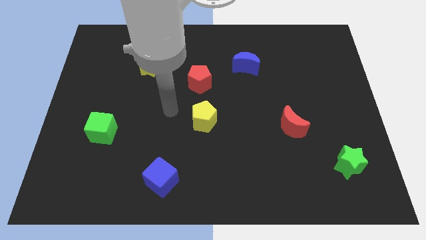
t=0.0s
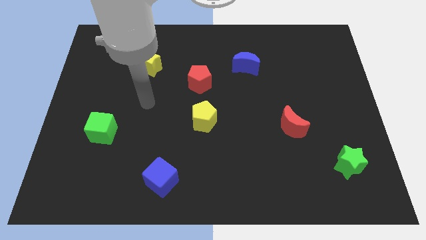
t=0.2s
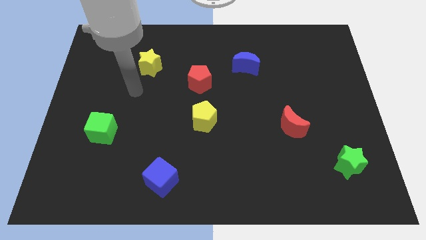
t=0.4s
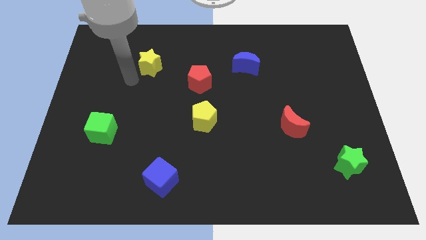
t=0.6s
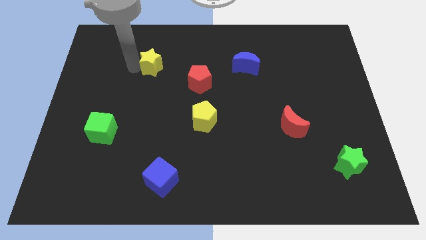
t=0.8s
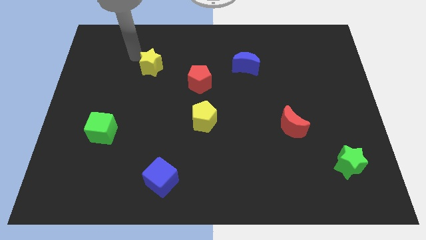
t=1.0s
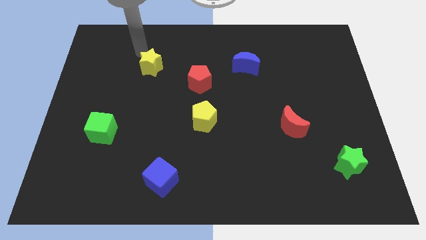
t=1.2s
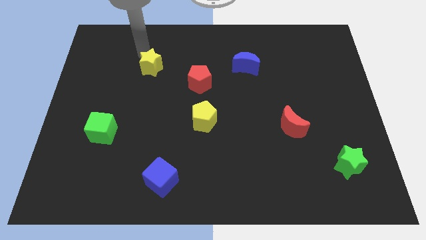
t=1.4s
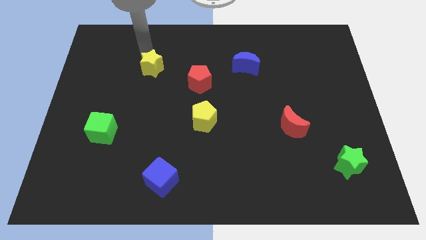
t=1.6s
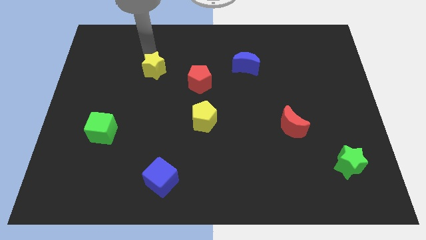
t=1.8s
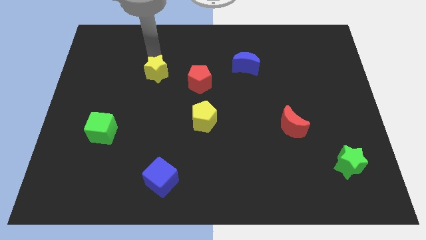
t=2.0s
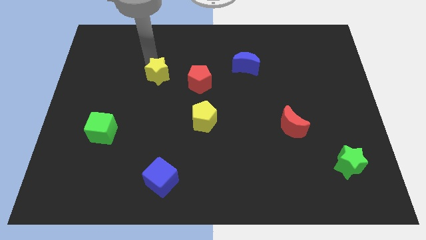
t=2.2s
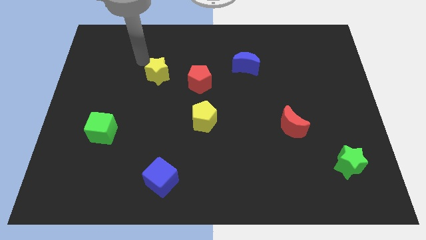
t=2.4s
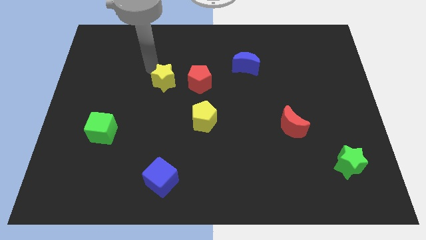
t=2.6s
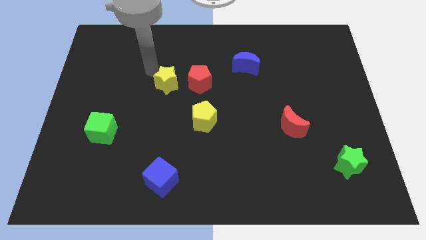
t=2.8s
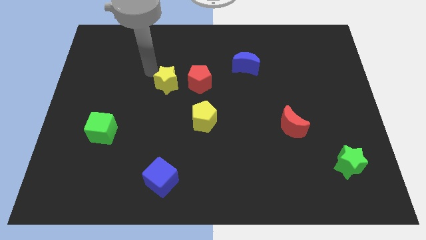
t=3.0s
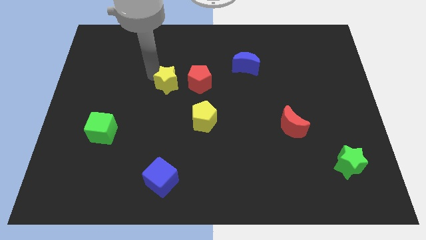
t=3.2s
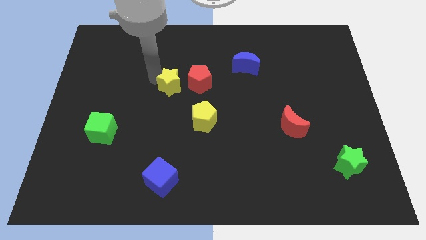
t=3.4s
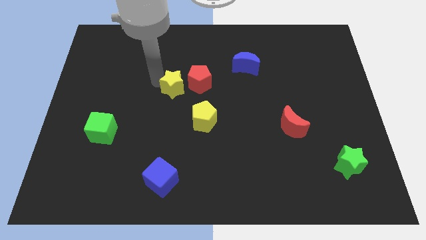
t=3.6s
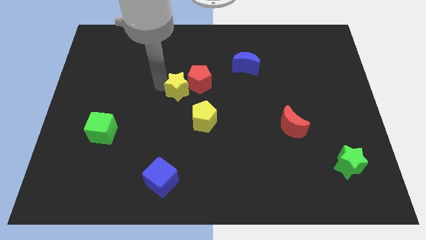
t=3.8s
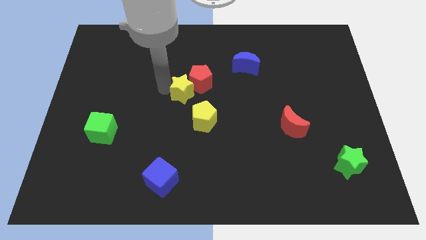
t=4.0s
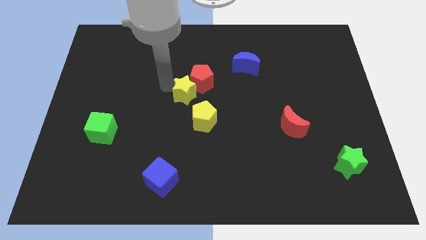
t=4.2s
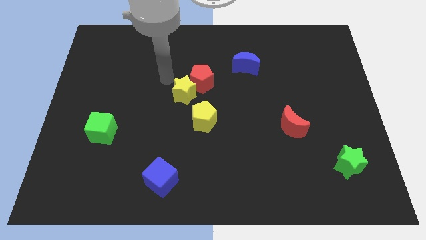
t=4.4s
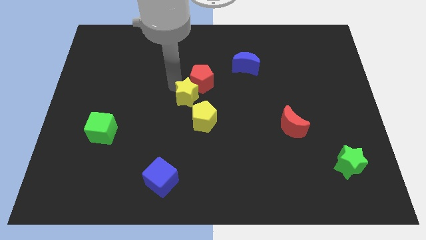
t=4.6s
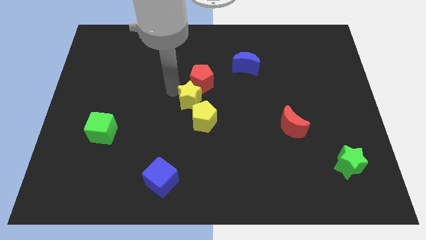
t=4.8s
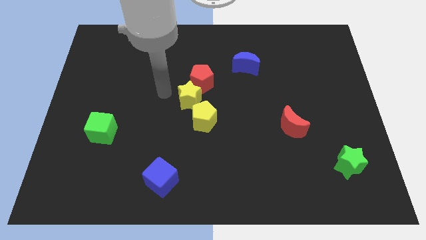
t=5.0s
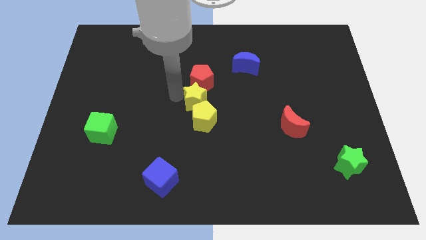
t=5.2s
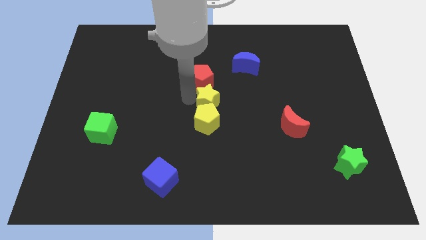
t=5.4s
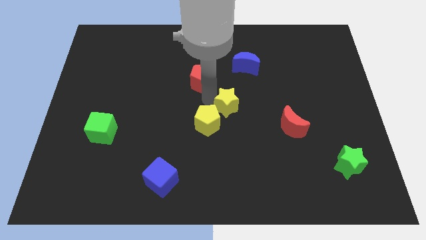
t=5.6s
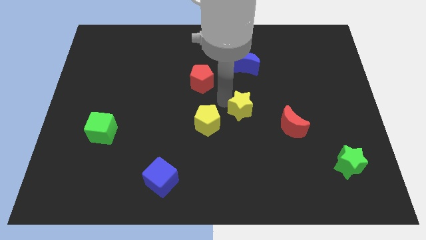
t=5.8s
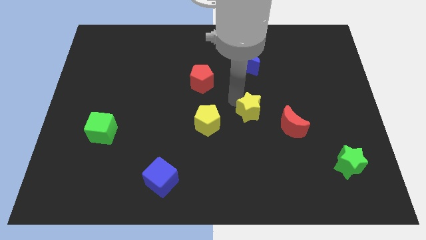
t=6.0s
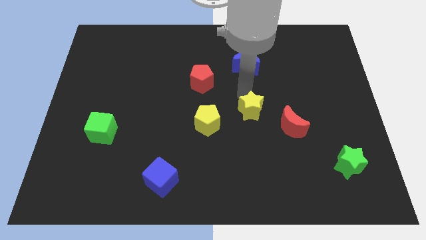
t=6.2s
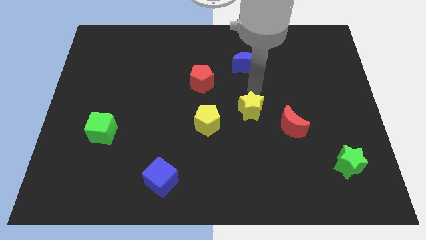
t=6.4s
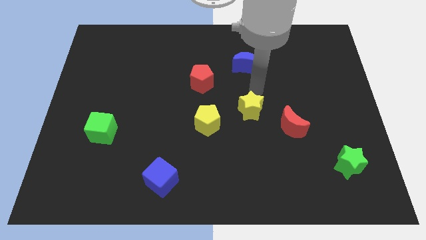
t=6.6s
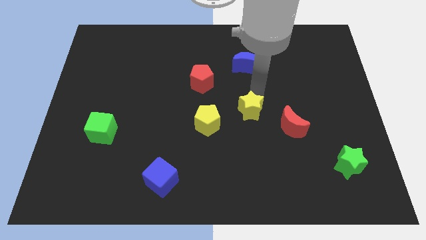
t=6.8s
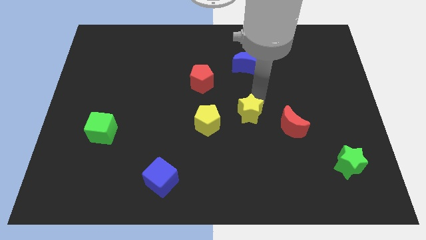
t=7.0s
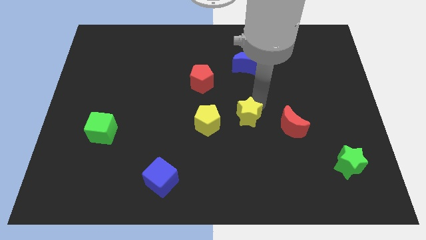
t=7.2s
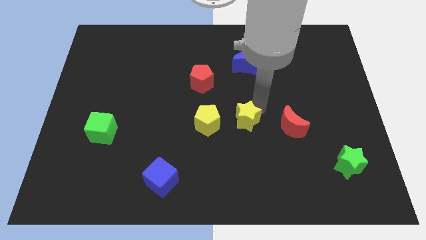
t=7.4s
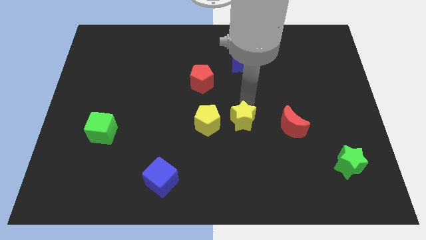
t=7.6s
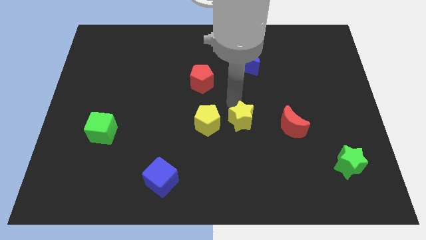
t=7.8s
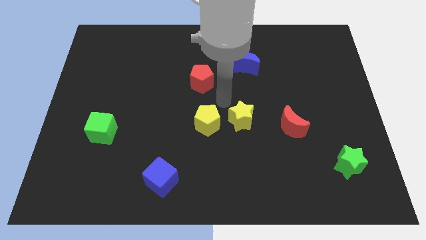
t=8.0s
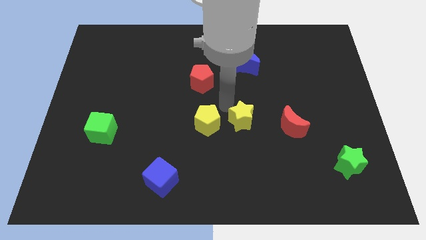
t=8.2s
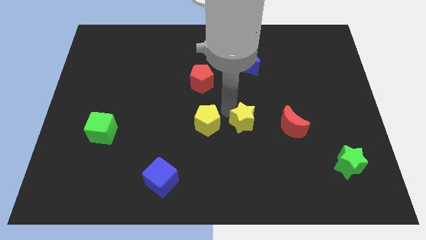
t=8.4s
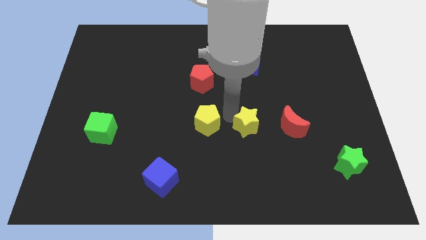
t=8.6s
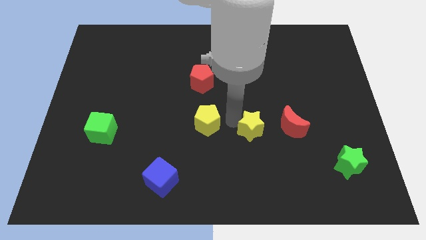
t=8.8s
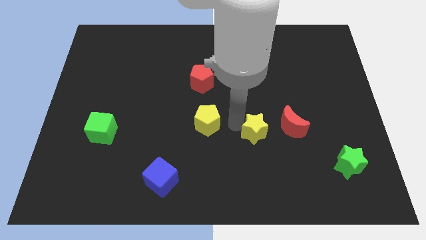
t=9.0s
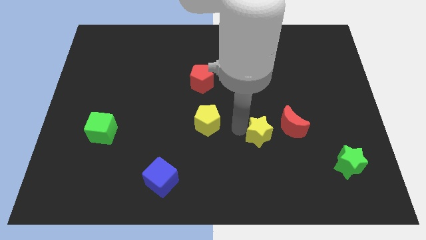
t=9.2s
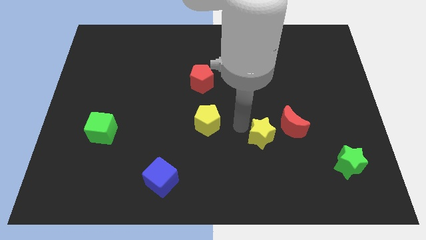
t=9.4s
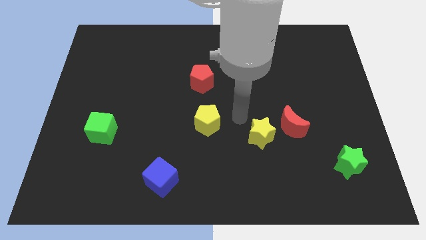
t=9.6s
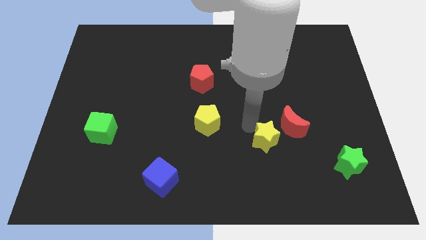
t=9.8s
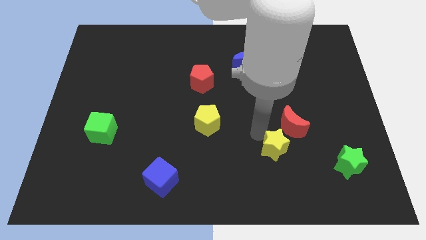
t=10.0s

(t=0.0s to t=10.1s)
move the yellow star below the red moon

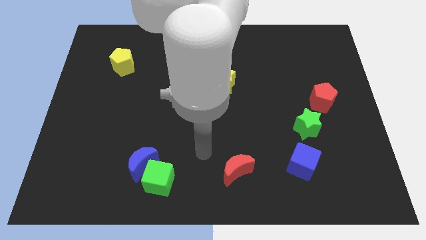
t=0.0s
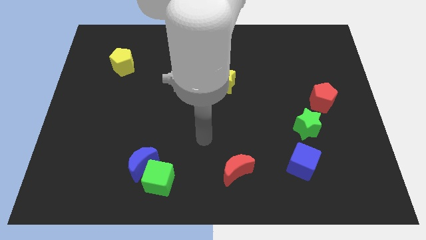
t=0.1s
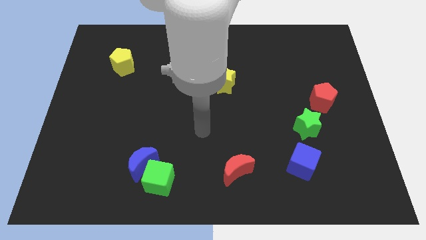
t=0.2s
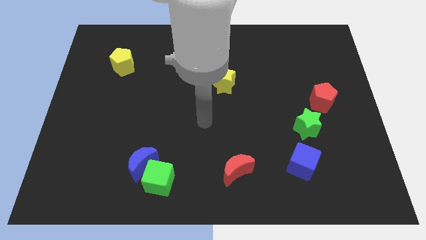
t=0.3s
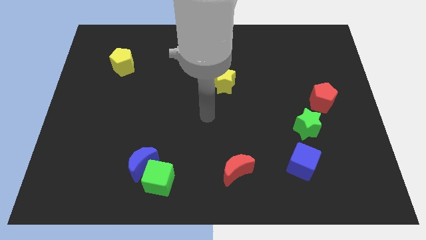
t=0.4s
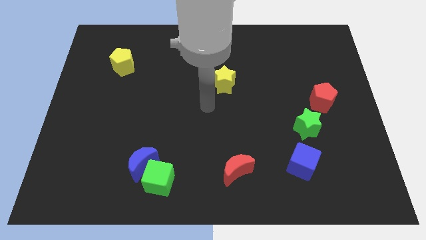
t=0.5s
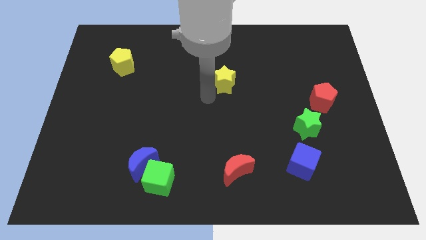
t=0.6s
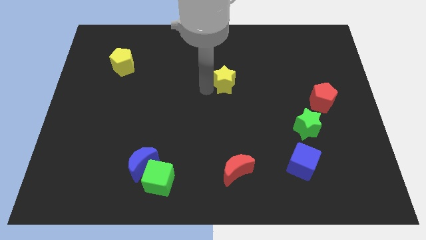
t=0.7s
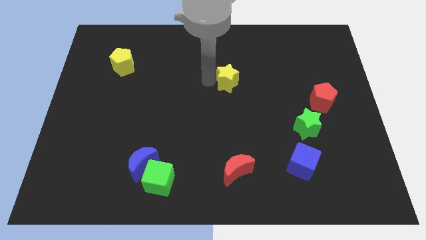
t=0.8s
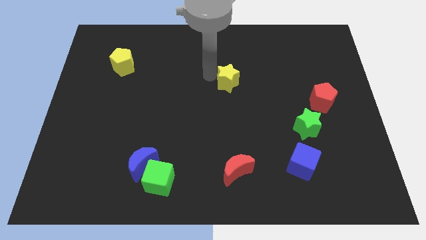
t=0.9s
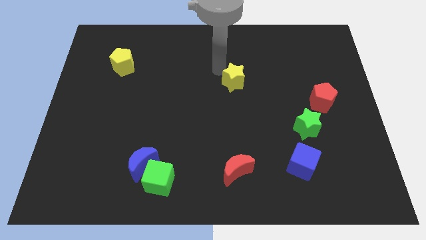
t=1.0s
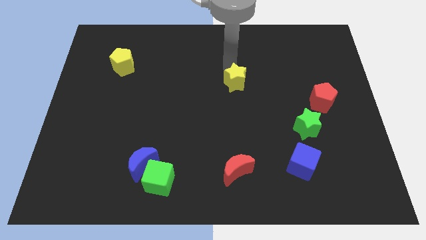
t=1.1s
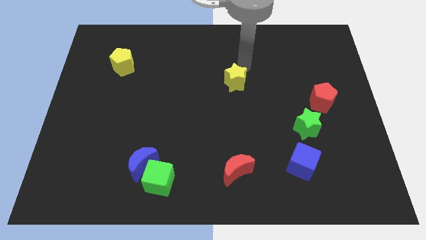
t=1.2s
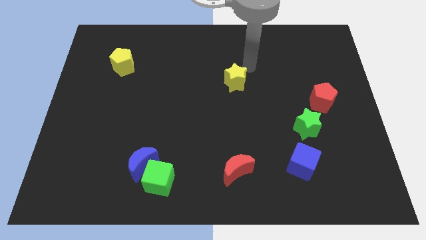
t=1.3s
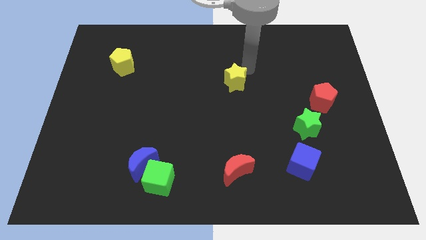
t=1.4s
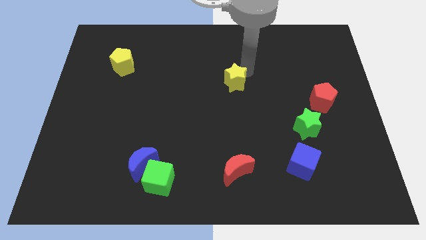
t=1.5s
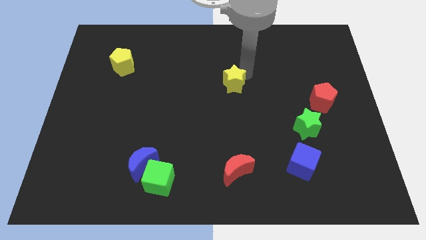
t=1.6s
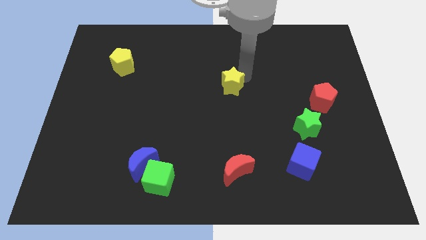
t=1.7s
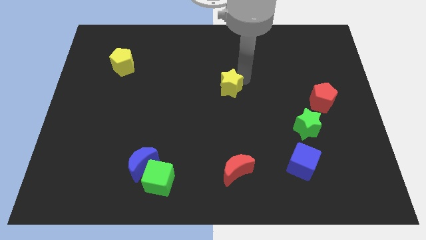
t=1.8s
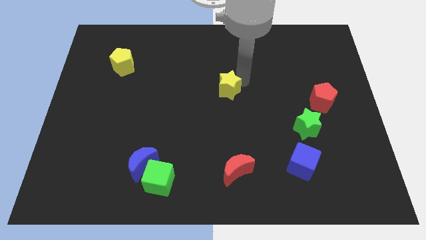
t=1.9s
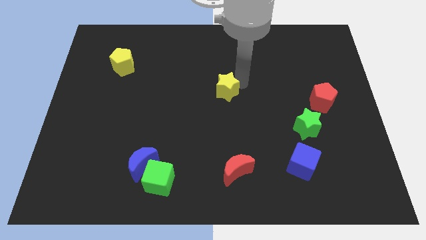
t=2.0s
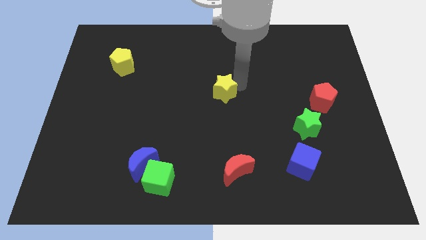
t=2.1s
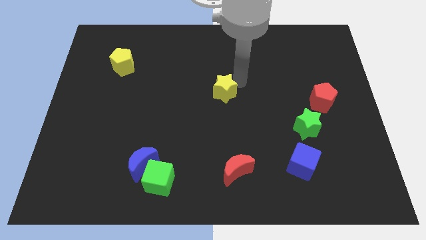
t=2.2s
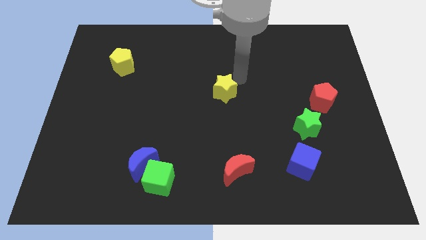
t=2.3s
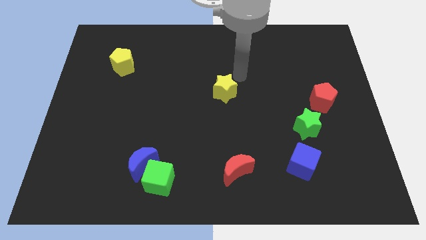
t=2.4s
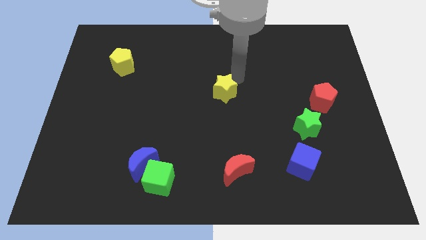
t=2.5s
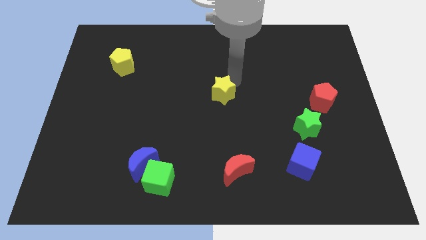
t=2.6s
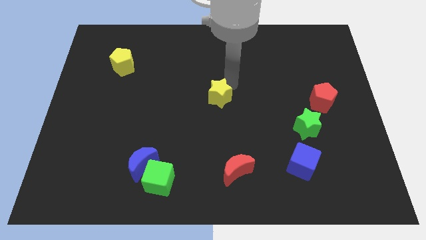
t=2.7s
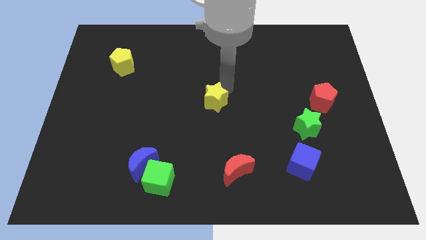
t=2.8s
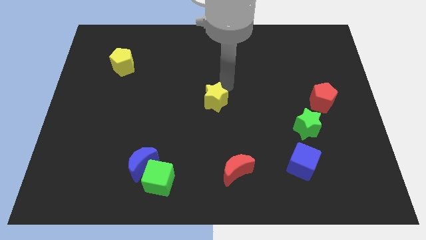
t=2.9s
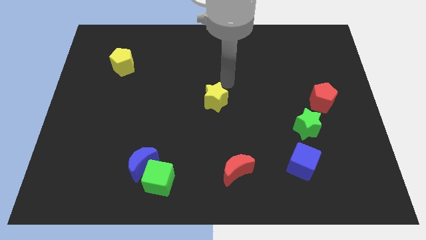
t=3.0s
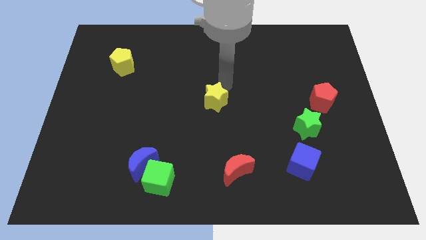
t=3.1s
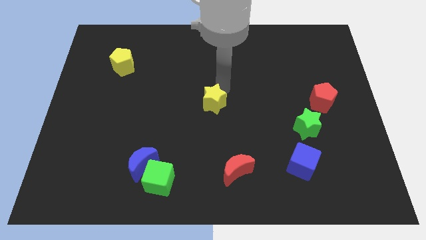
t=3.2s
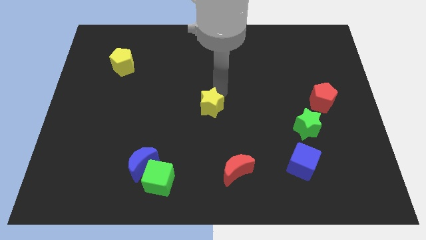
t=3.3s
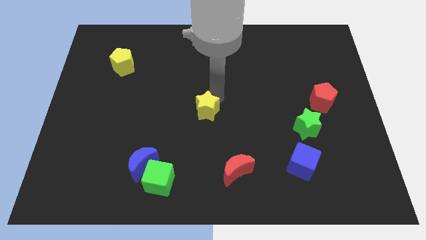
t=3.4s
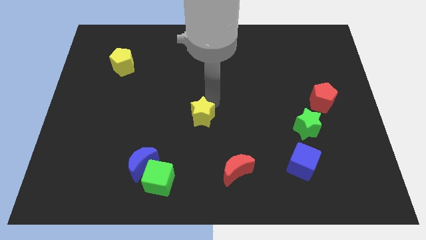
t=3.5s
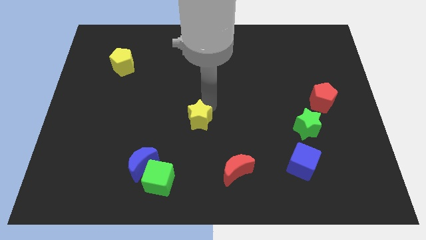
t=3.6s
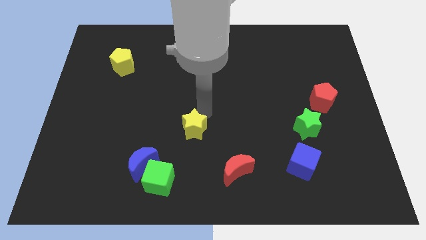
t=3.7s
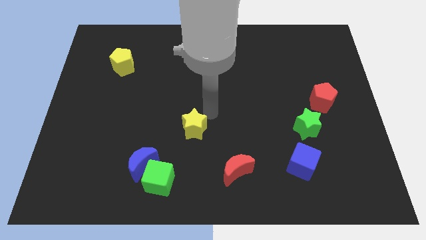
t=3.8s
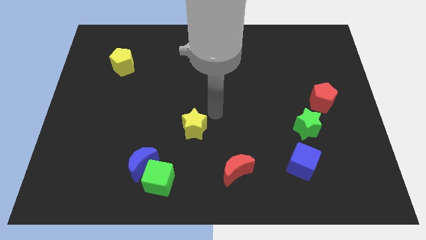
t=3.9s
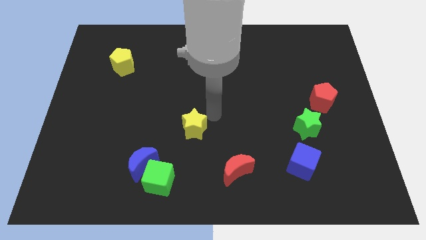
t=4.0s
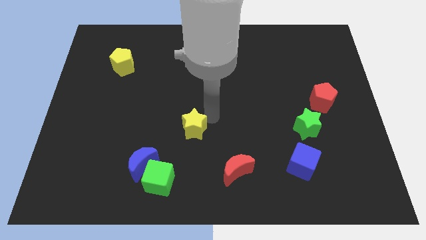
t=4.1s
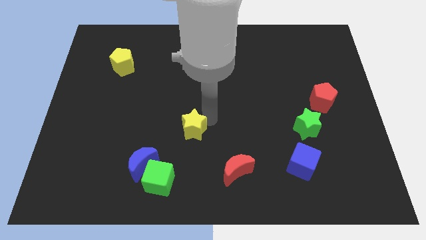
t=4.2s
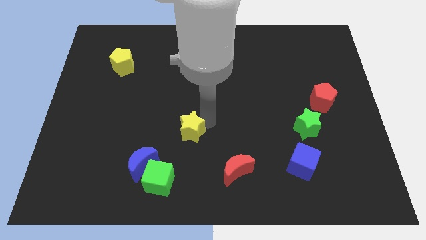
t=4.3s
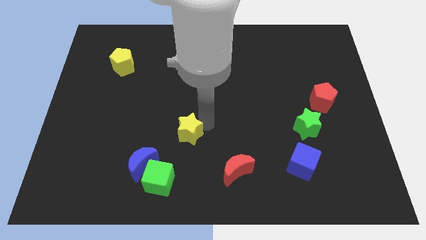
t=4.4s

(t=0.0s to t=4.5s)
move the yellow star to the top right side of the blue moon
